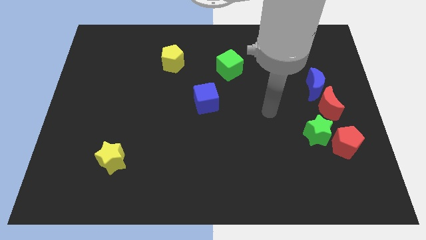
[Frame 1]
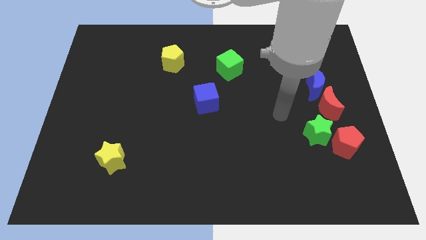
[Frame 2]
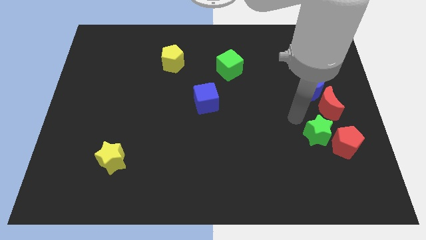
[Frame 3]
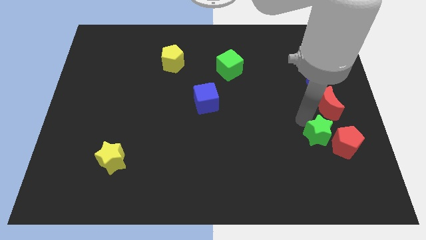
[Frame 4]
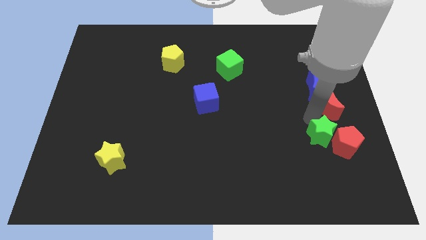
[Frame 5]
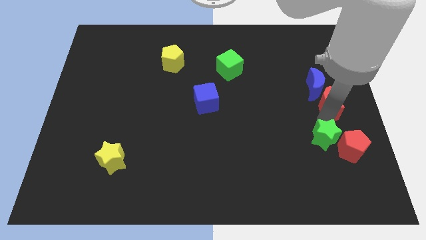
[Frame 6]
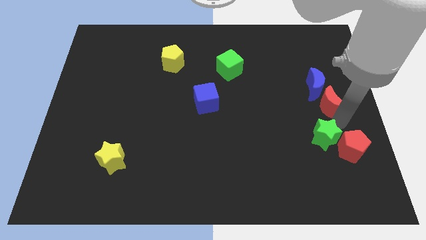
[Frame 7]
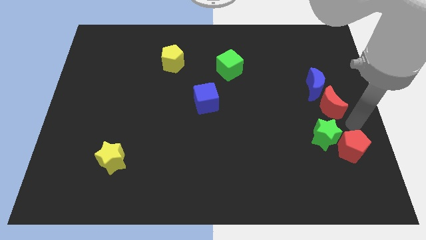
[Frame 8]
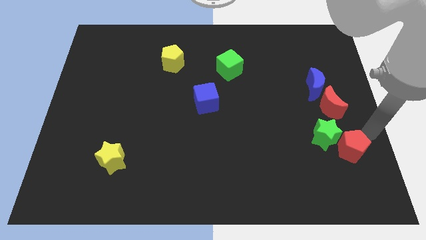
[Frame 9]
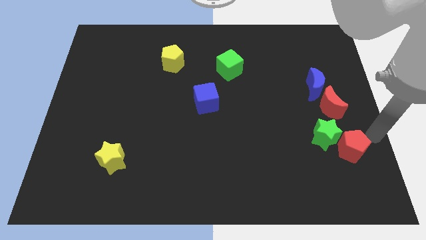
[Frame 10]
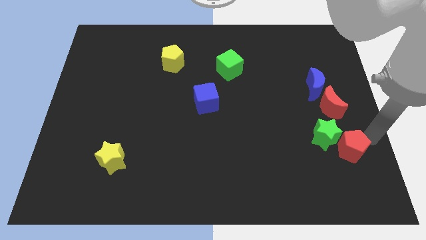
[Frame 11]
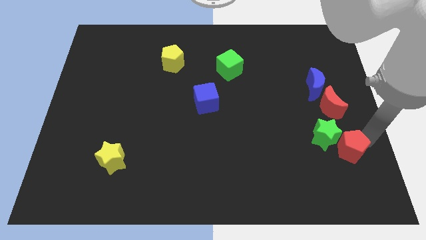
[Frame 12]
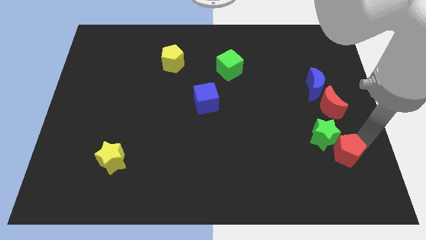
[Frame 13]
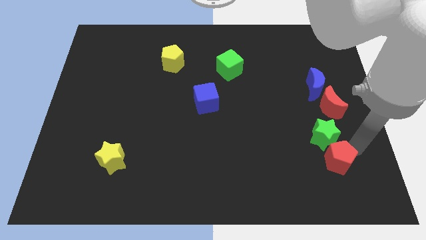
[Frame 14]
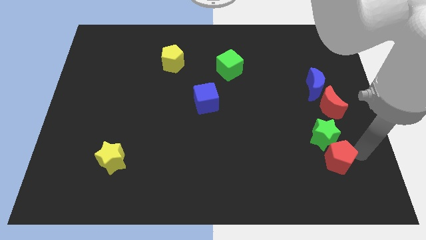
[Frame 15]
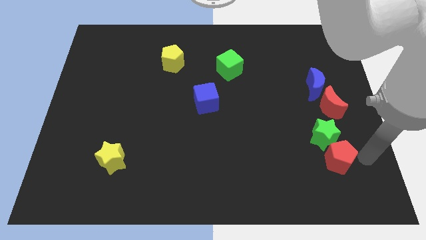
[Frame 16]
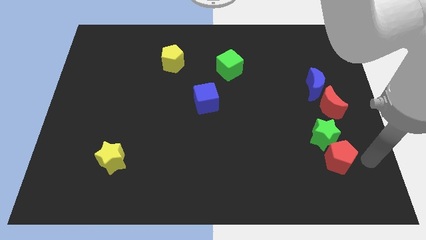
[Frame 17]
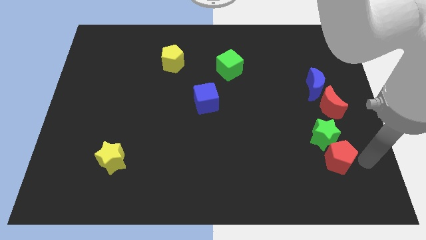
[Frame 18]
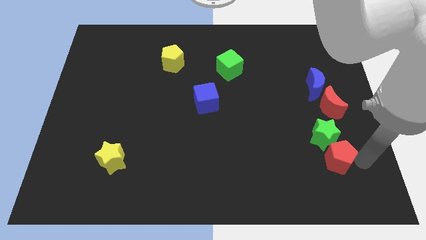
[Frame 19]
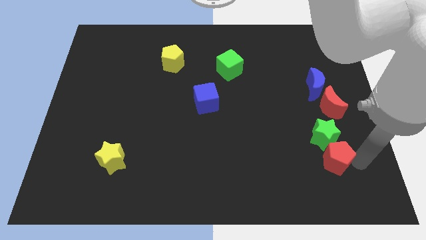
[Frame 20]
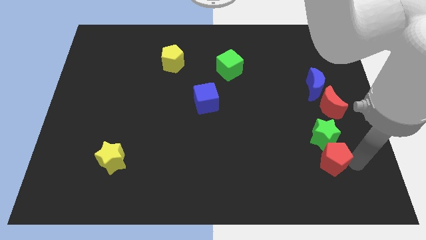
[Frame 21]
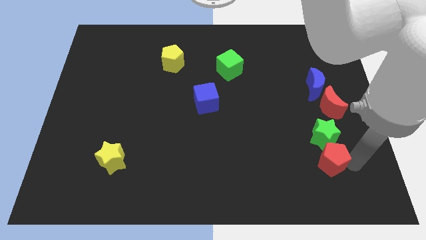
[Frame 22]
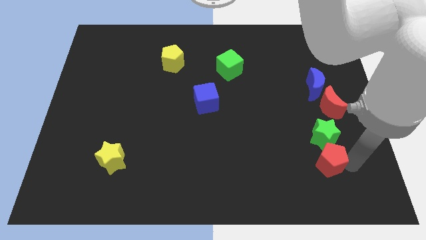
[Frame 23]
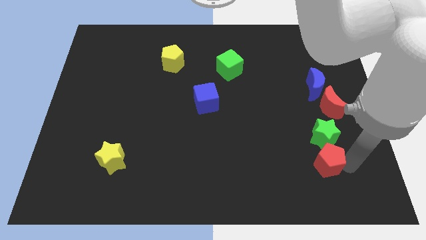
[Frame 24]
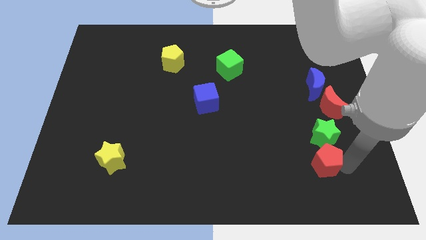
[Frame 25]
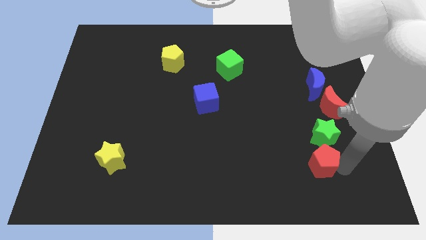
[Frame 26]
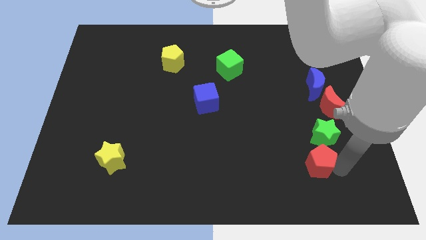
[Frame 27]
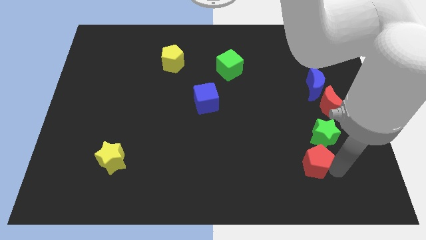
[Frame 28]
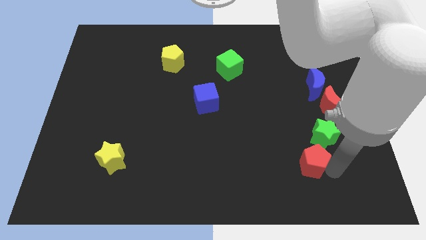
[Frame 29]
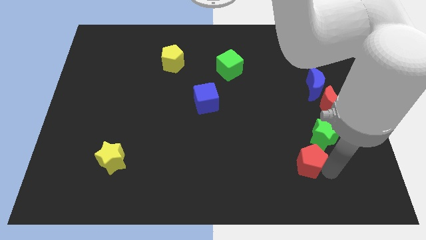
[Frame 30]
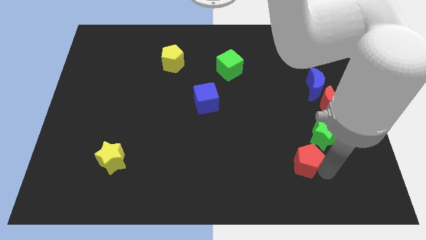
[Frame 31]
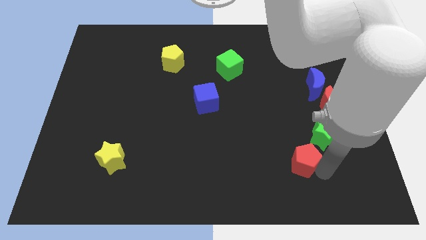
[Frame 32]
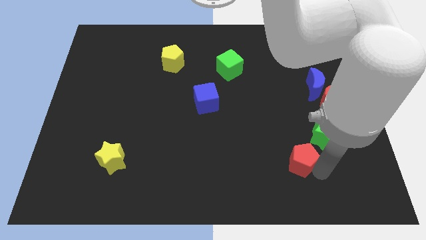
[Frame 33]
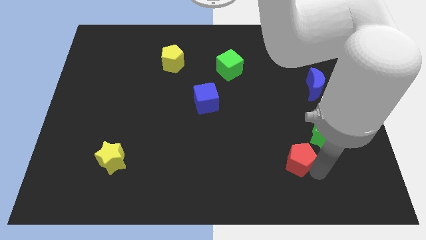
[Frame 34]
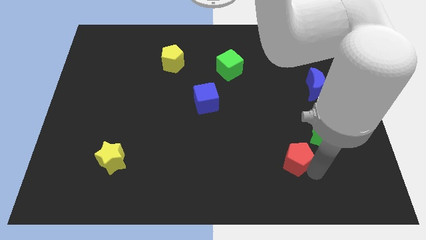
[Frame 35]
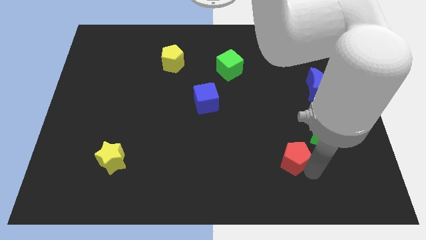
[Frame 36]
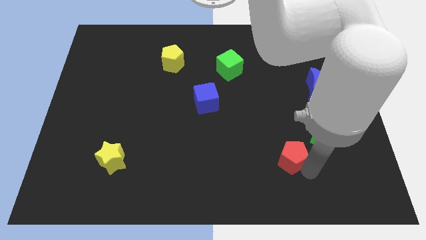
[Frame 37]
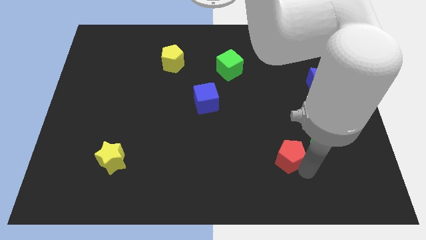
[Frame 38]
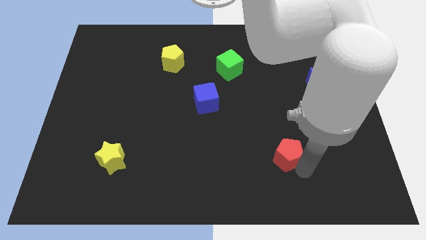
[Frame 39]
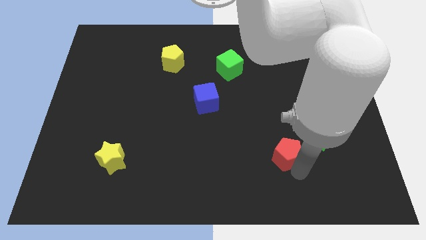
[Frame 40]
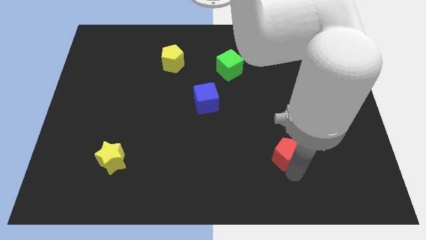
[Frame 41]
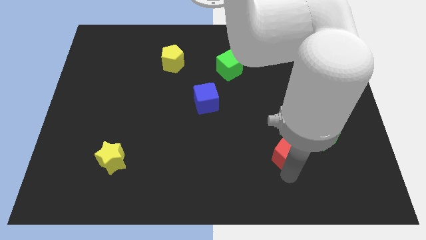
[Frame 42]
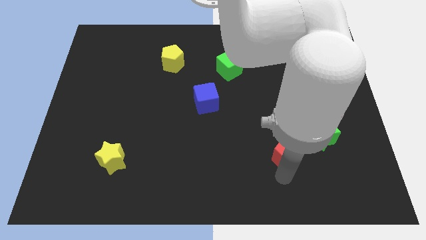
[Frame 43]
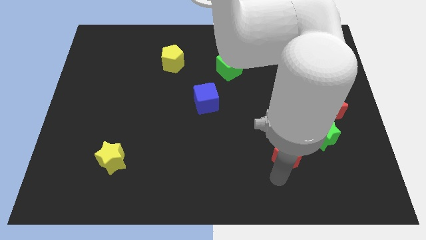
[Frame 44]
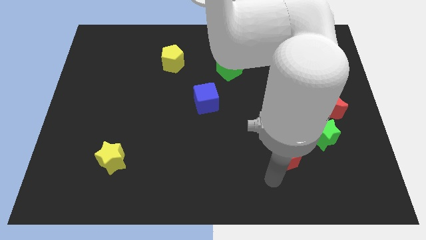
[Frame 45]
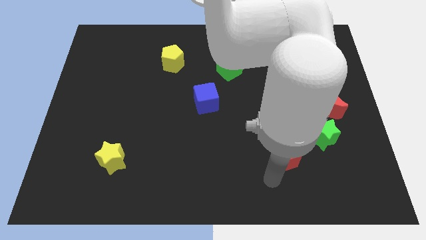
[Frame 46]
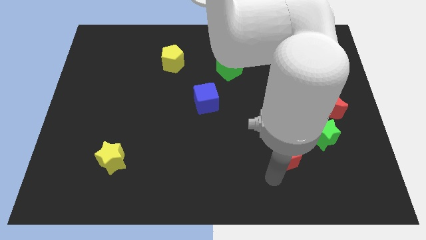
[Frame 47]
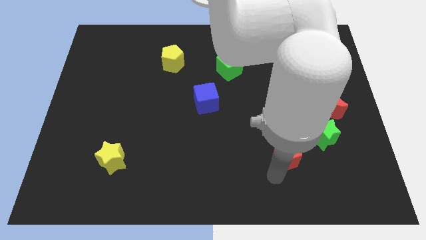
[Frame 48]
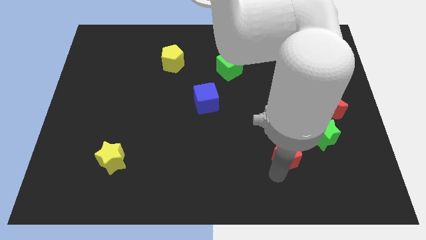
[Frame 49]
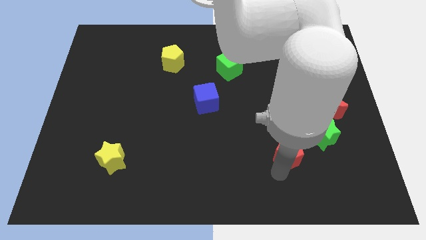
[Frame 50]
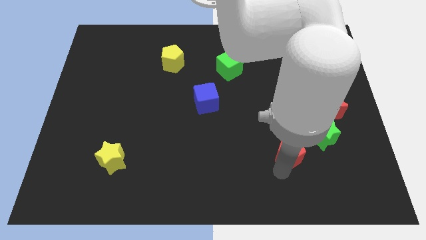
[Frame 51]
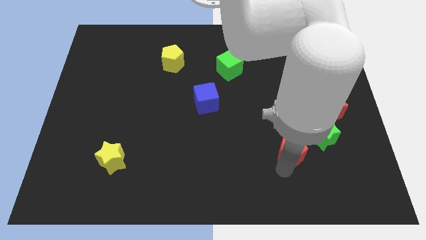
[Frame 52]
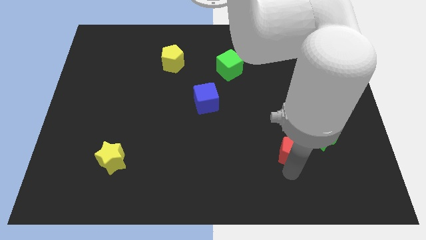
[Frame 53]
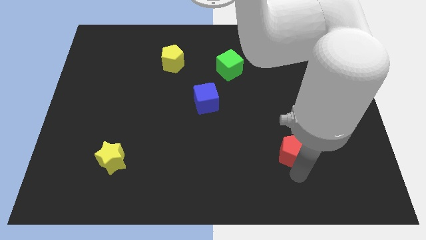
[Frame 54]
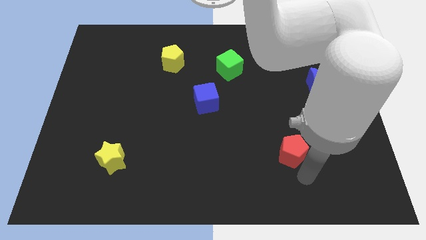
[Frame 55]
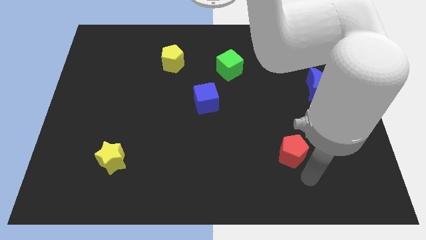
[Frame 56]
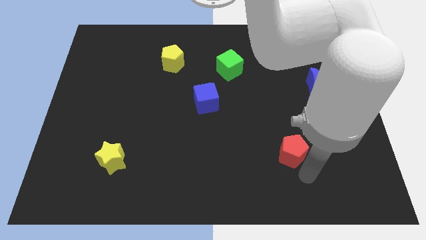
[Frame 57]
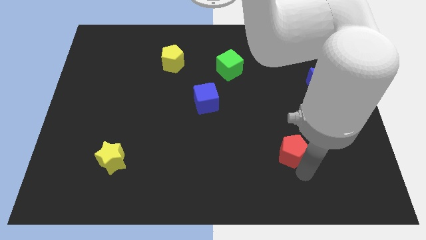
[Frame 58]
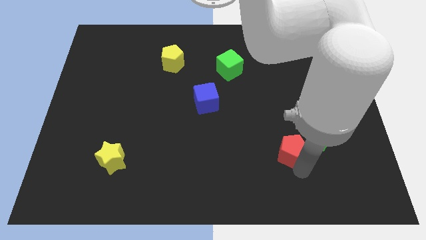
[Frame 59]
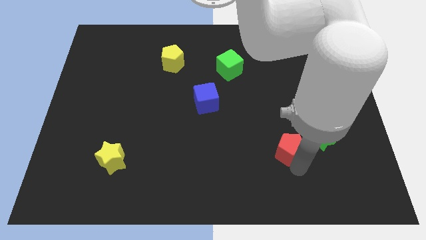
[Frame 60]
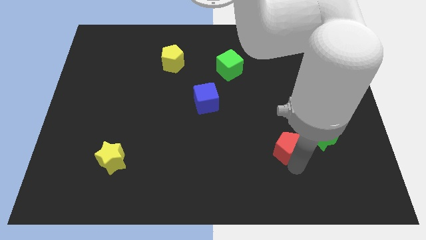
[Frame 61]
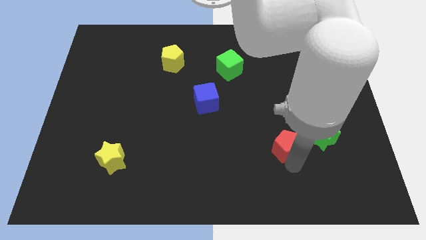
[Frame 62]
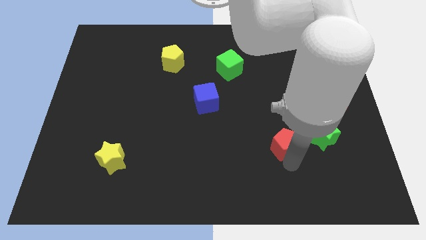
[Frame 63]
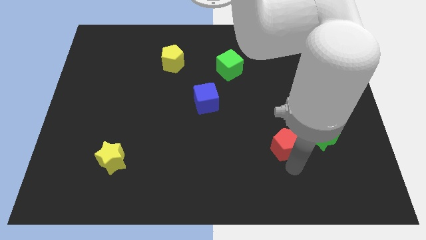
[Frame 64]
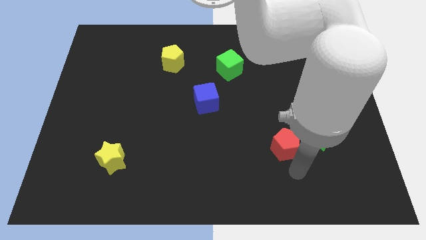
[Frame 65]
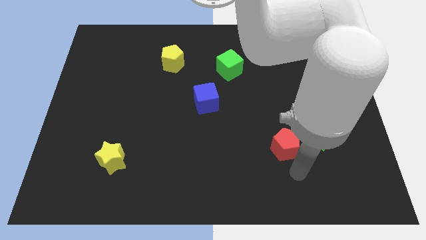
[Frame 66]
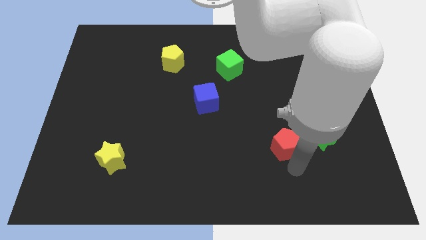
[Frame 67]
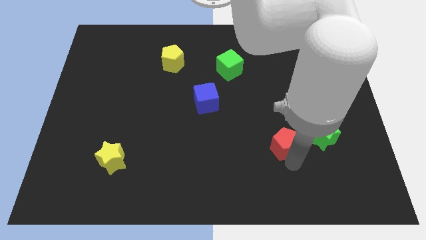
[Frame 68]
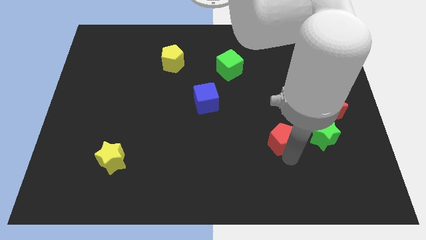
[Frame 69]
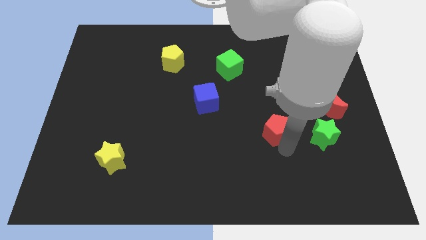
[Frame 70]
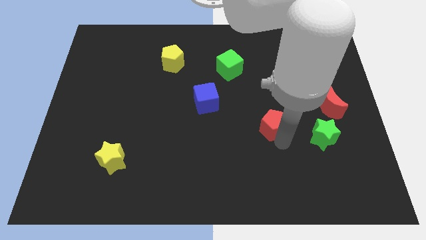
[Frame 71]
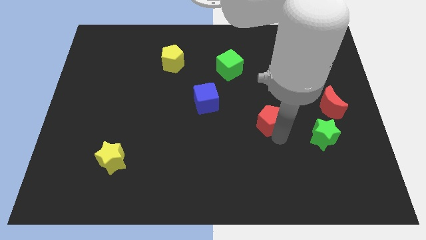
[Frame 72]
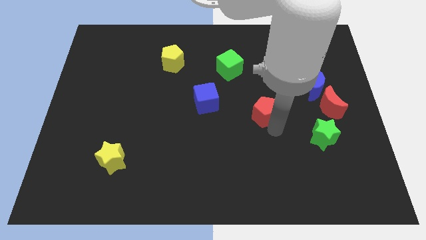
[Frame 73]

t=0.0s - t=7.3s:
move the red pentagon right of the blue cube
